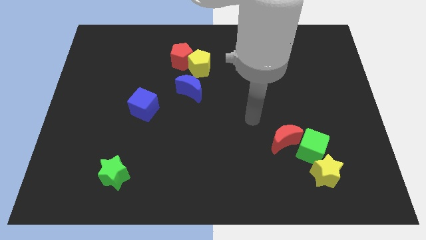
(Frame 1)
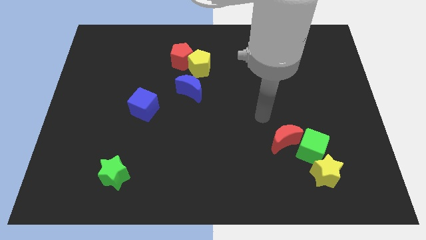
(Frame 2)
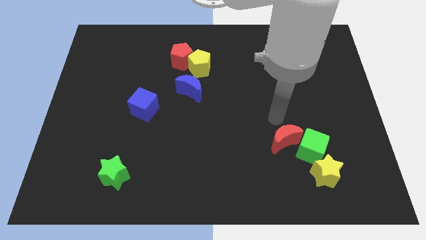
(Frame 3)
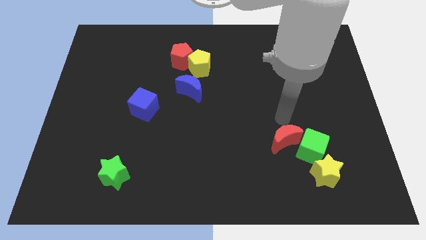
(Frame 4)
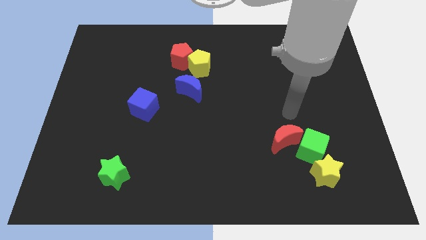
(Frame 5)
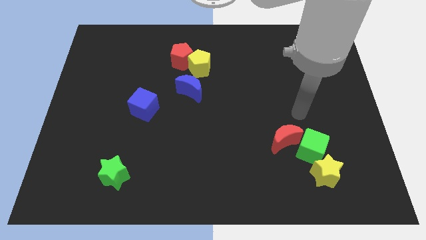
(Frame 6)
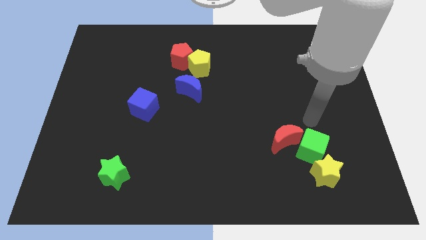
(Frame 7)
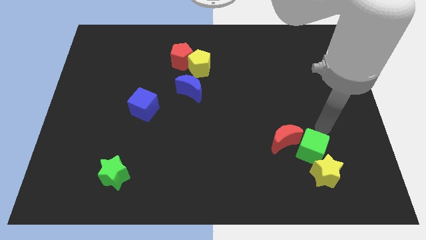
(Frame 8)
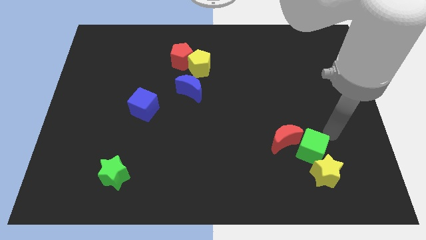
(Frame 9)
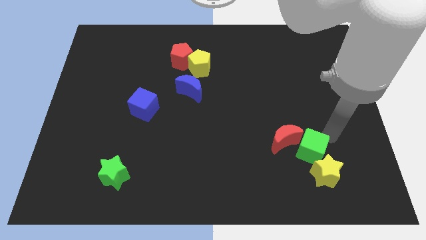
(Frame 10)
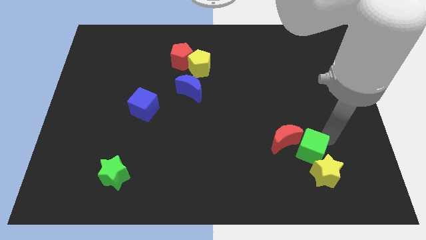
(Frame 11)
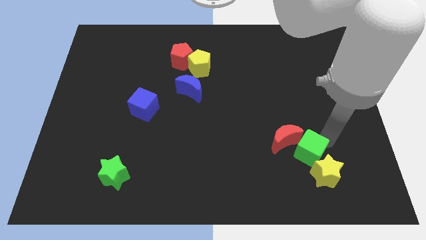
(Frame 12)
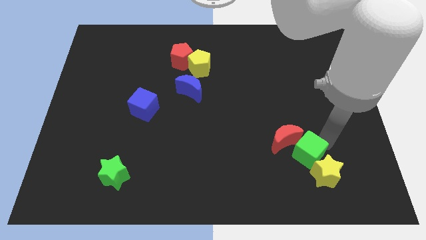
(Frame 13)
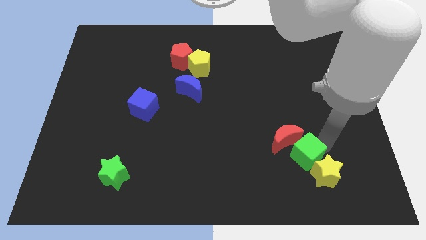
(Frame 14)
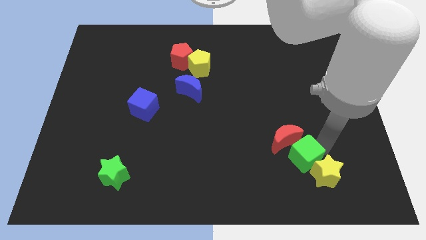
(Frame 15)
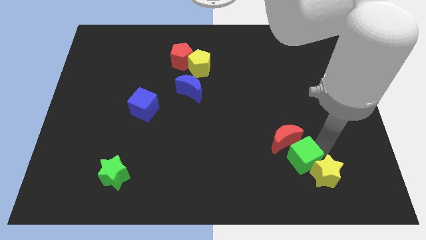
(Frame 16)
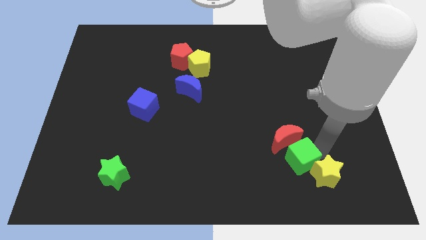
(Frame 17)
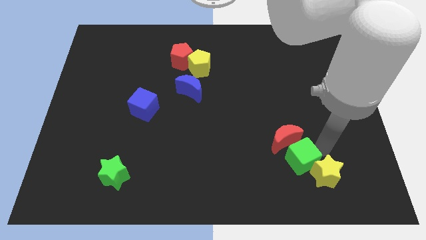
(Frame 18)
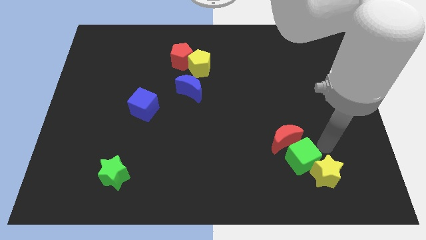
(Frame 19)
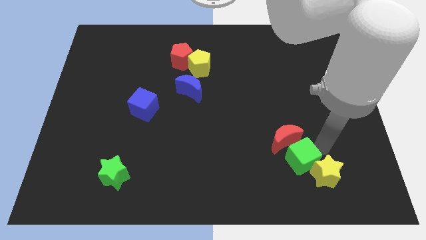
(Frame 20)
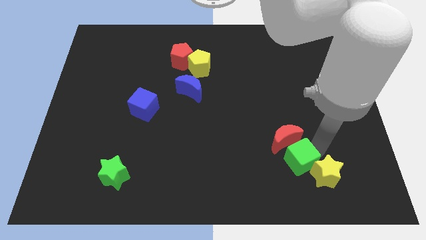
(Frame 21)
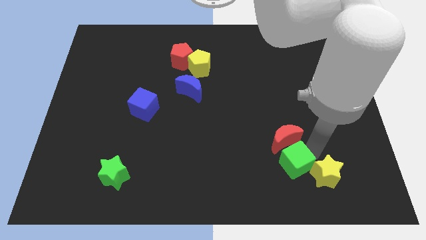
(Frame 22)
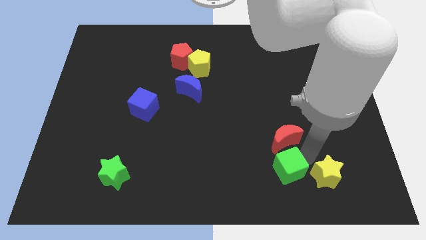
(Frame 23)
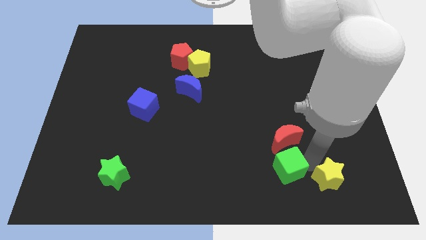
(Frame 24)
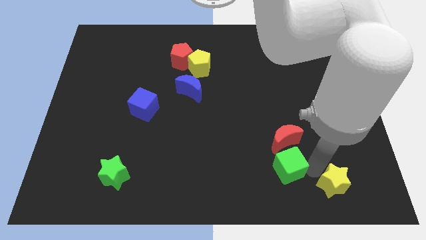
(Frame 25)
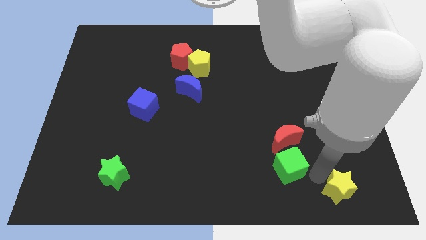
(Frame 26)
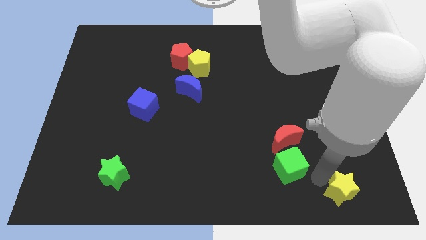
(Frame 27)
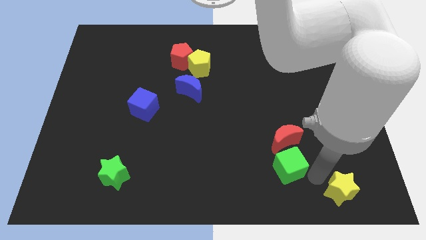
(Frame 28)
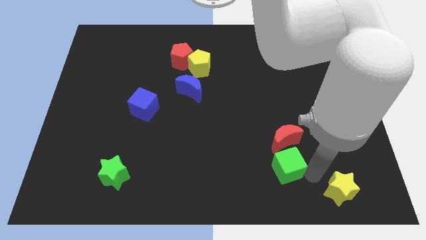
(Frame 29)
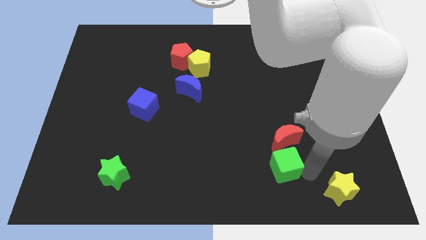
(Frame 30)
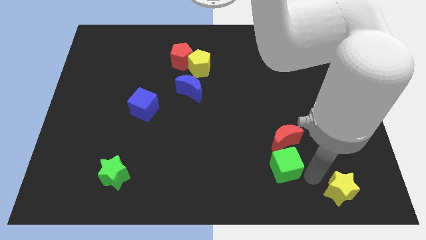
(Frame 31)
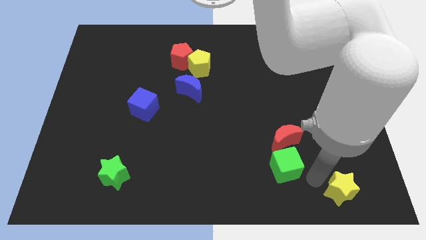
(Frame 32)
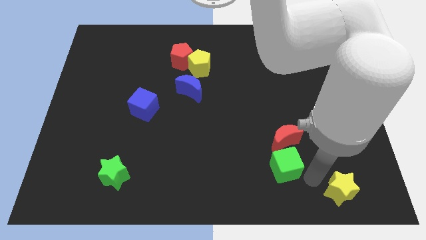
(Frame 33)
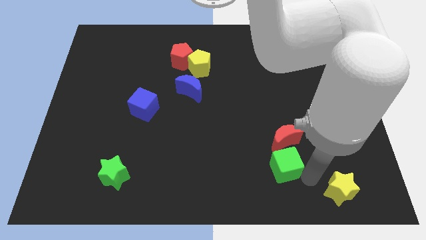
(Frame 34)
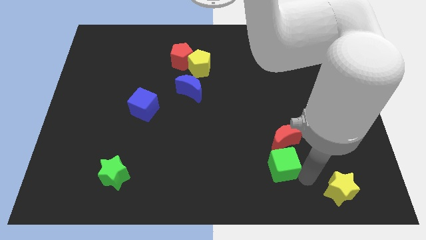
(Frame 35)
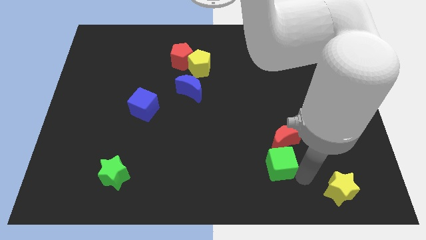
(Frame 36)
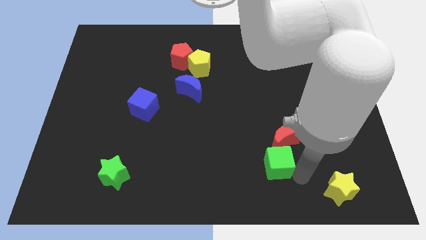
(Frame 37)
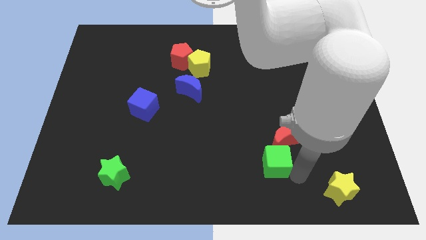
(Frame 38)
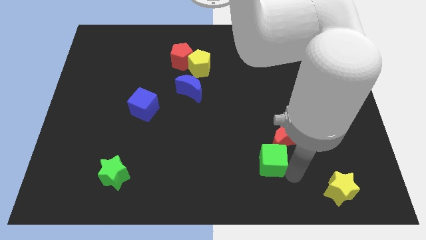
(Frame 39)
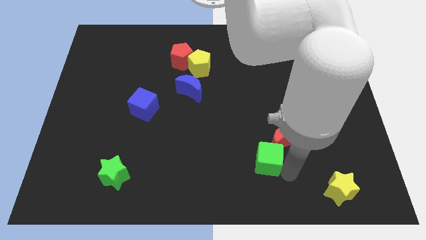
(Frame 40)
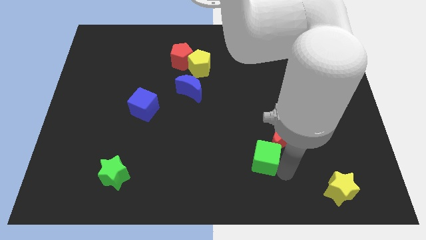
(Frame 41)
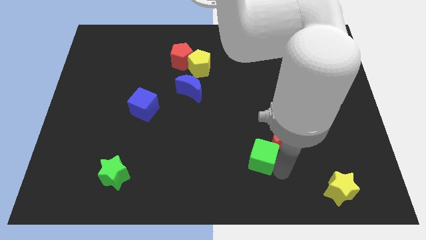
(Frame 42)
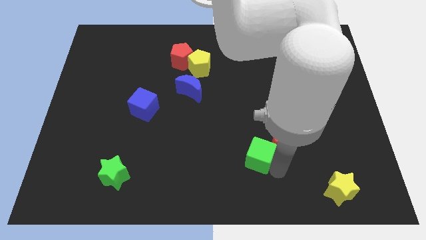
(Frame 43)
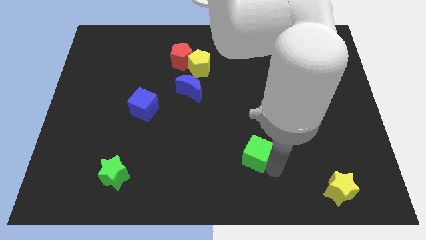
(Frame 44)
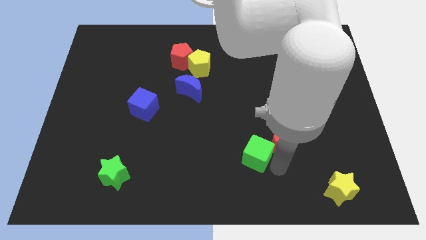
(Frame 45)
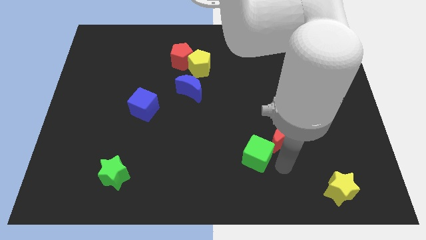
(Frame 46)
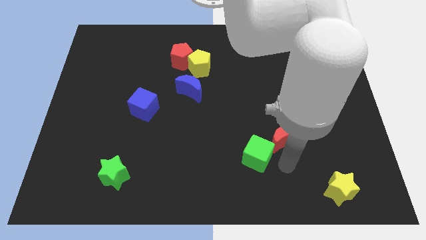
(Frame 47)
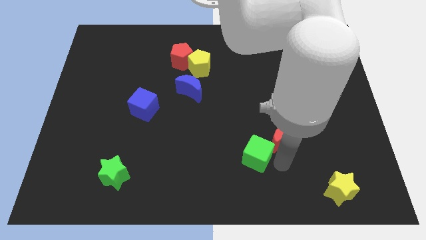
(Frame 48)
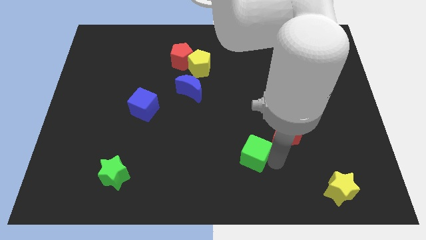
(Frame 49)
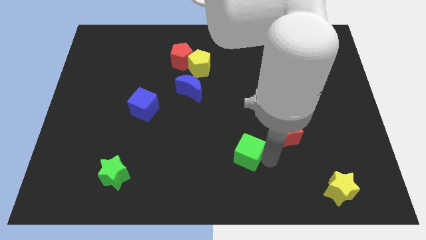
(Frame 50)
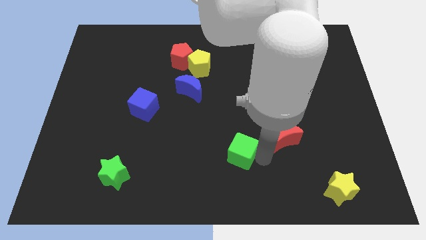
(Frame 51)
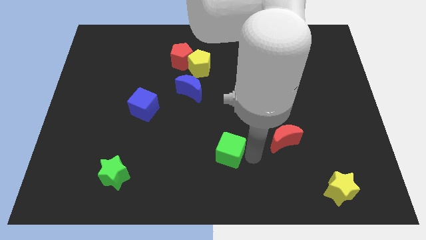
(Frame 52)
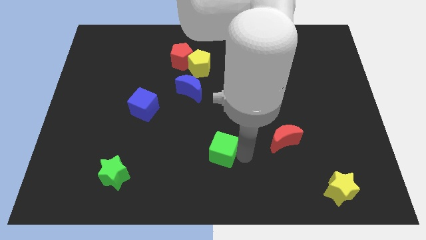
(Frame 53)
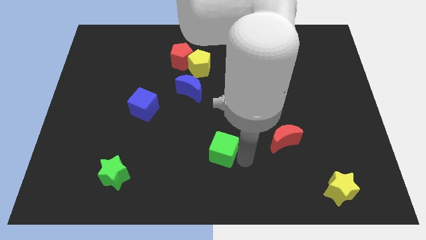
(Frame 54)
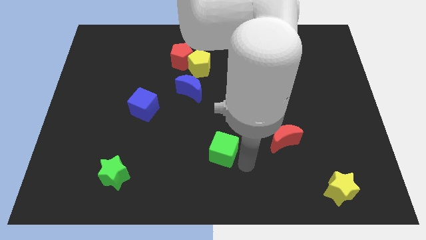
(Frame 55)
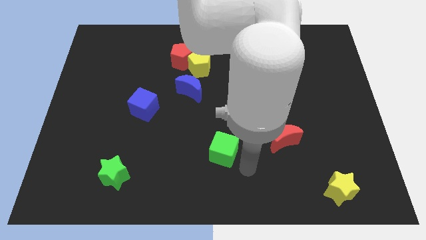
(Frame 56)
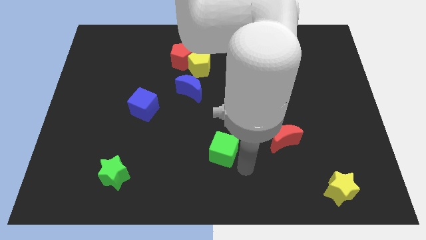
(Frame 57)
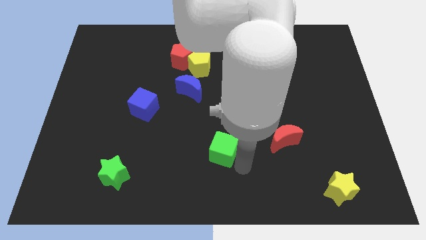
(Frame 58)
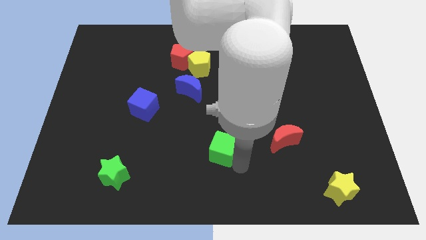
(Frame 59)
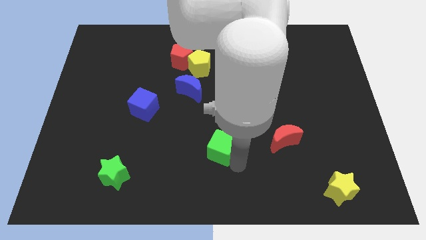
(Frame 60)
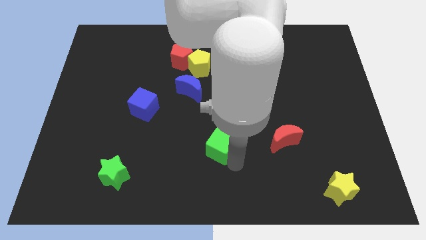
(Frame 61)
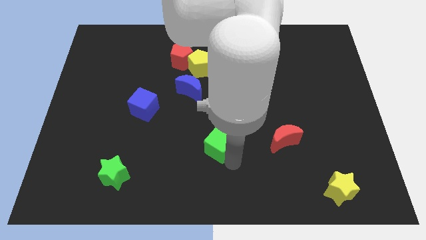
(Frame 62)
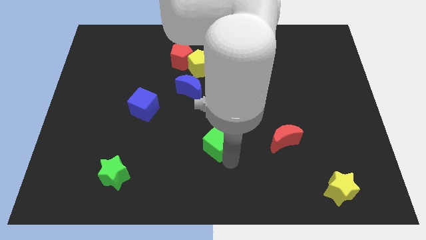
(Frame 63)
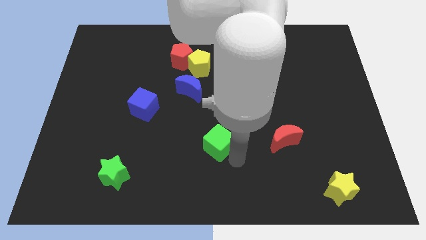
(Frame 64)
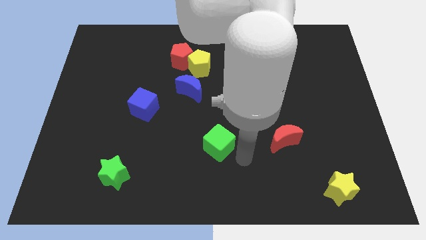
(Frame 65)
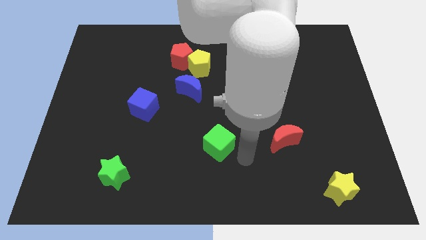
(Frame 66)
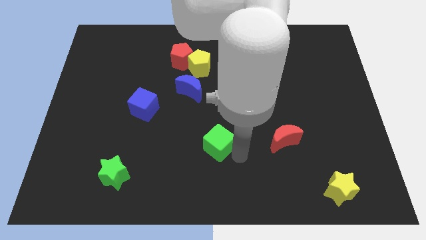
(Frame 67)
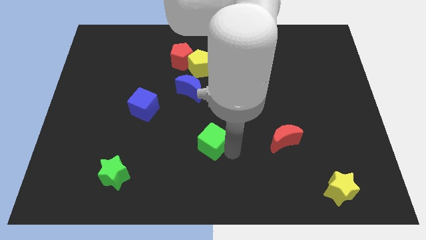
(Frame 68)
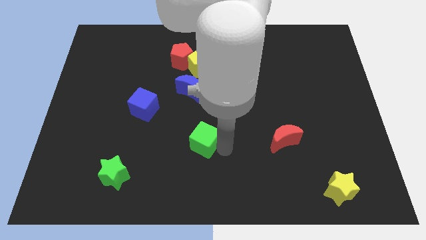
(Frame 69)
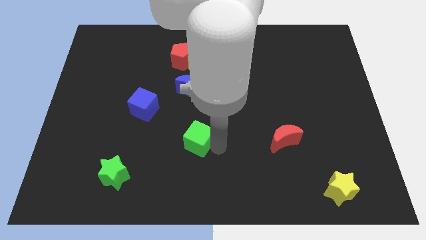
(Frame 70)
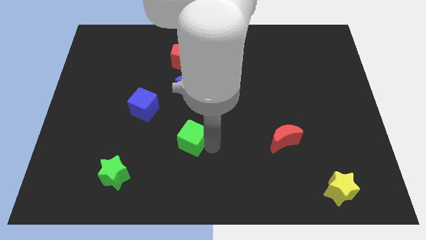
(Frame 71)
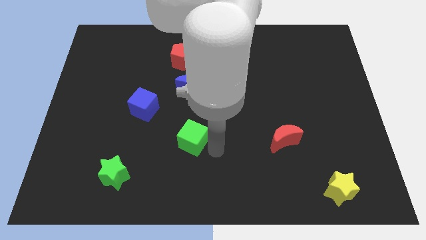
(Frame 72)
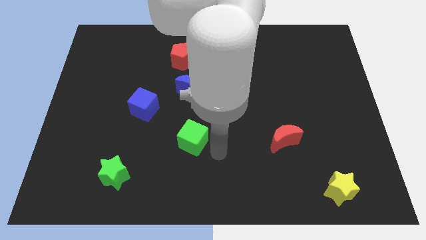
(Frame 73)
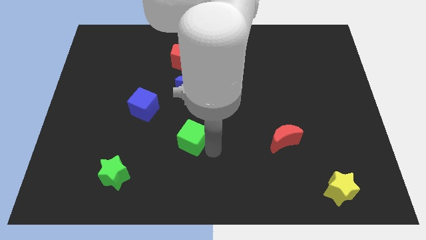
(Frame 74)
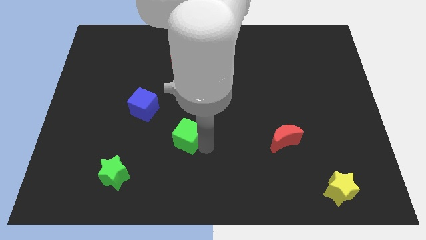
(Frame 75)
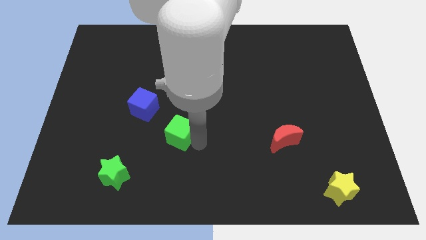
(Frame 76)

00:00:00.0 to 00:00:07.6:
move the green cube to the bottom right of the blue cube

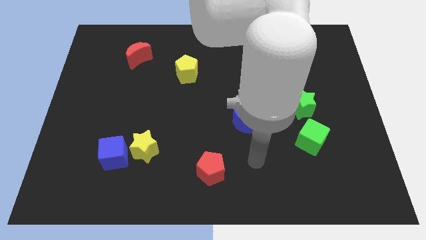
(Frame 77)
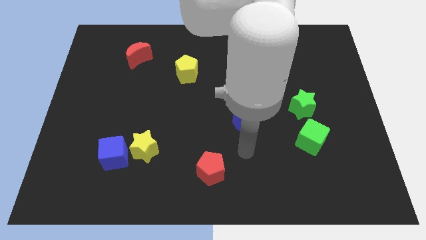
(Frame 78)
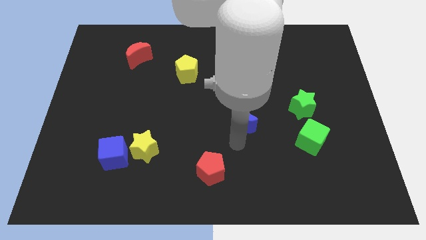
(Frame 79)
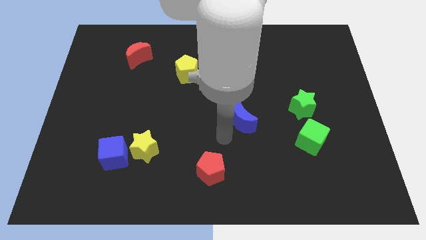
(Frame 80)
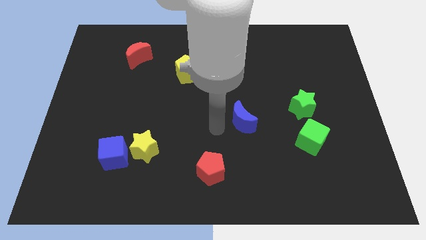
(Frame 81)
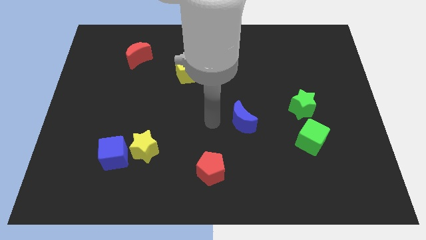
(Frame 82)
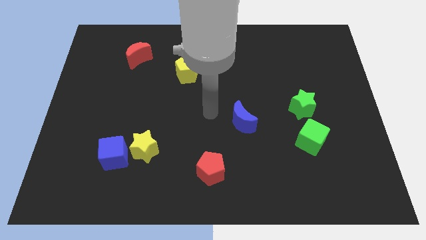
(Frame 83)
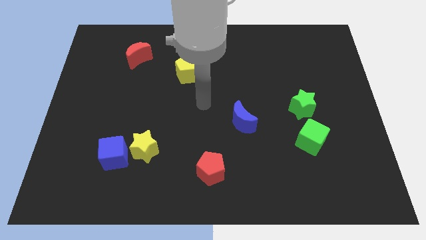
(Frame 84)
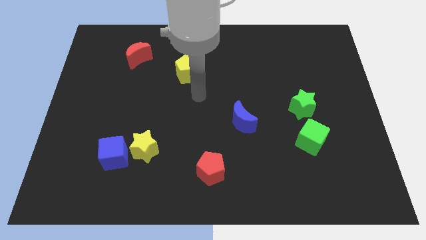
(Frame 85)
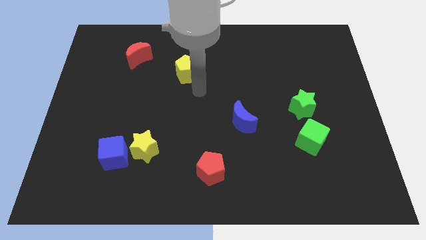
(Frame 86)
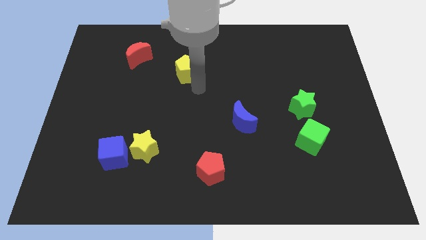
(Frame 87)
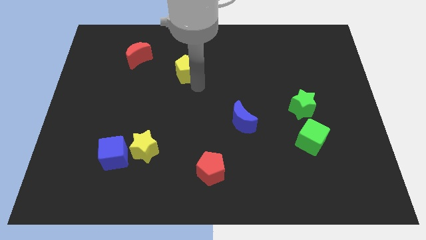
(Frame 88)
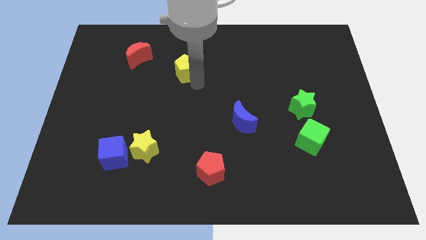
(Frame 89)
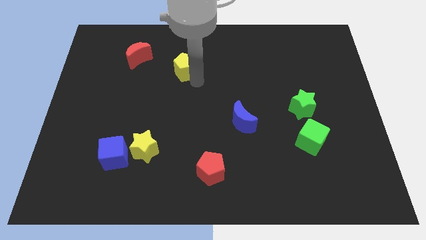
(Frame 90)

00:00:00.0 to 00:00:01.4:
move the yellow pentagon right of the red moon
